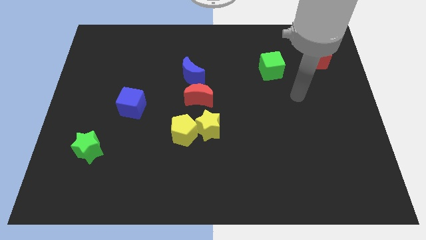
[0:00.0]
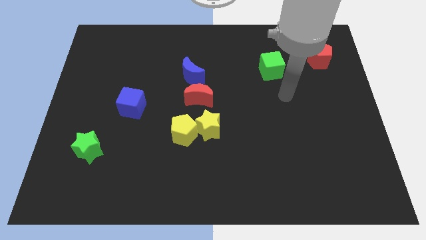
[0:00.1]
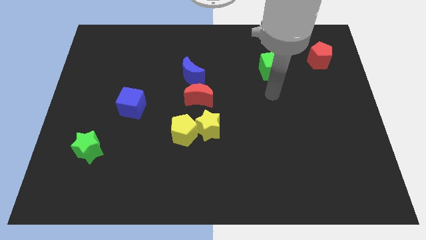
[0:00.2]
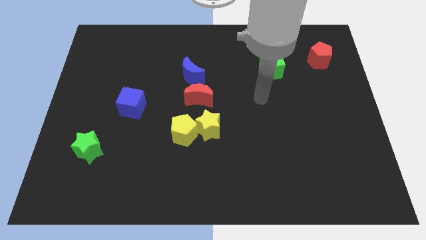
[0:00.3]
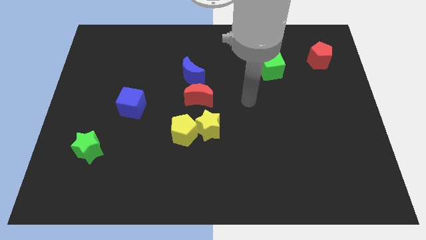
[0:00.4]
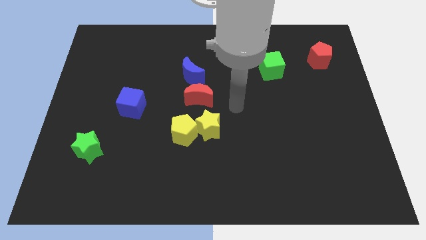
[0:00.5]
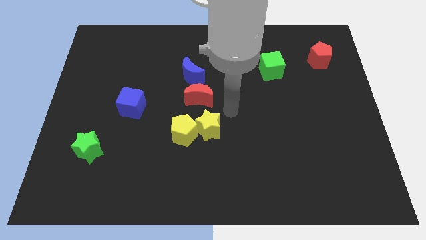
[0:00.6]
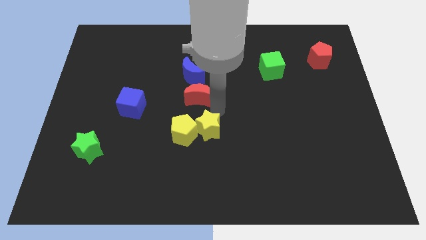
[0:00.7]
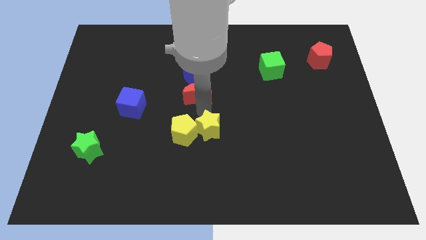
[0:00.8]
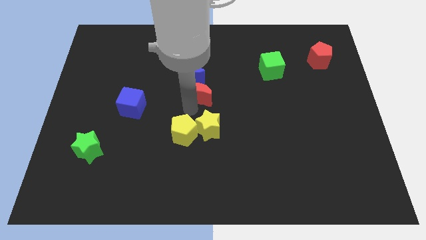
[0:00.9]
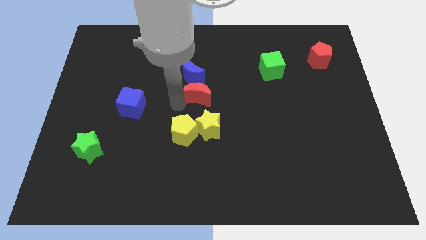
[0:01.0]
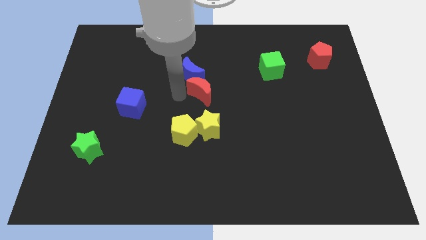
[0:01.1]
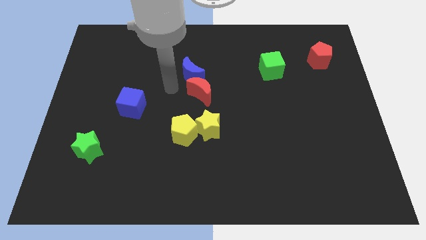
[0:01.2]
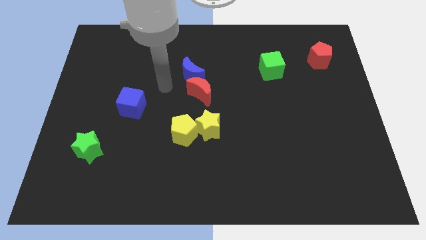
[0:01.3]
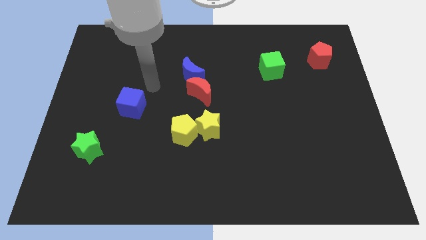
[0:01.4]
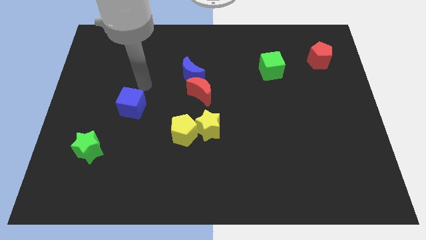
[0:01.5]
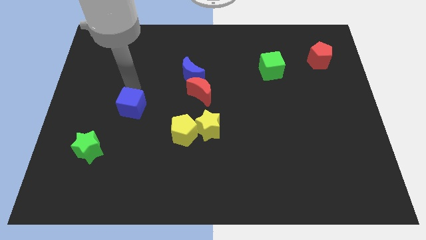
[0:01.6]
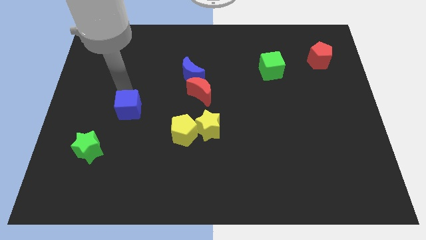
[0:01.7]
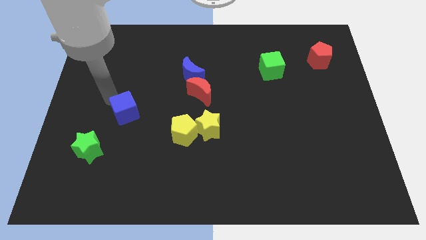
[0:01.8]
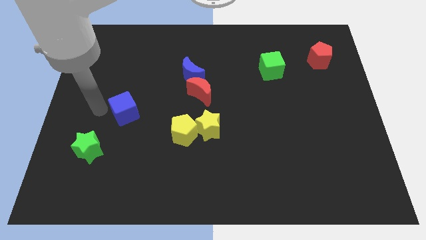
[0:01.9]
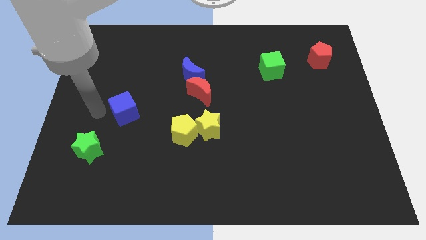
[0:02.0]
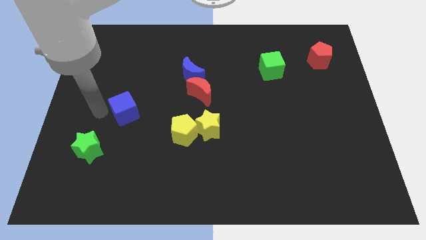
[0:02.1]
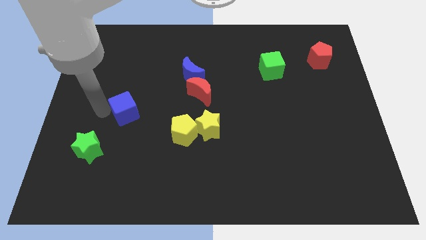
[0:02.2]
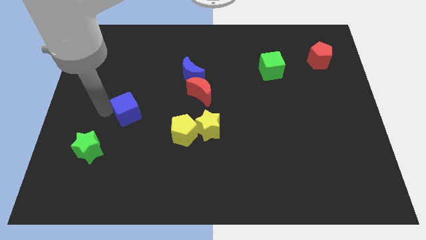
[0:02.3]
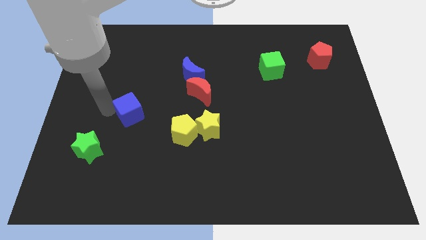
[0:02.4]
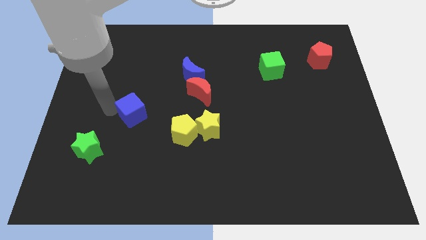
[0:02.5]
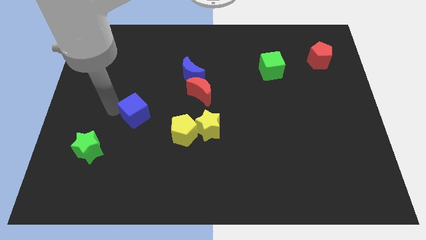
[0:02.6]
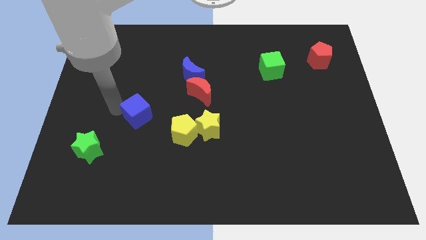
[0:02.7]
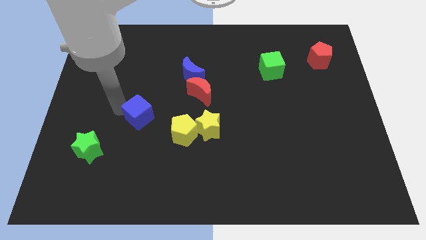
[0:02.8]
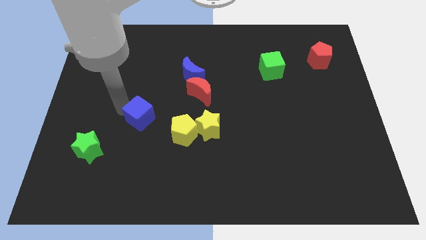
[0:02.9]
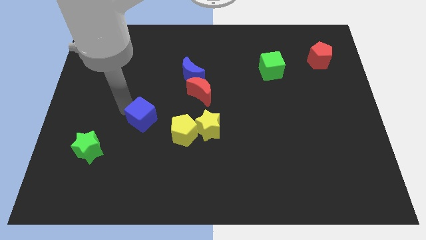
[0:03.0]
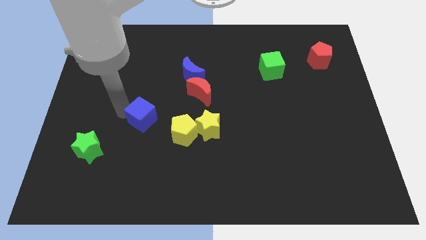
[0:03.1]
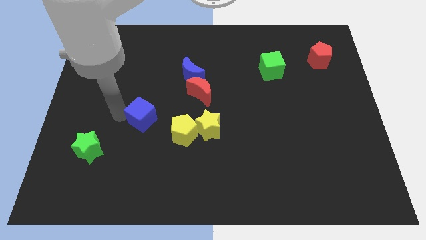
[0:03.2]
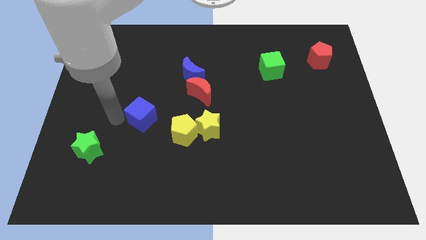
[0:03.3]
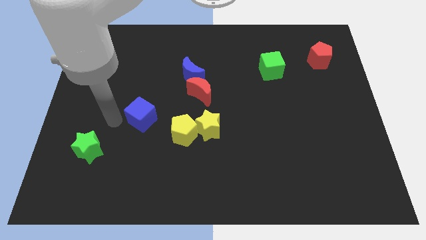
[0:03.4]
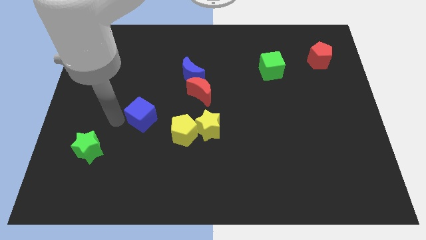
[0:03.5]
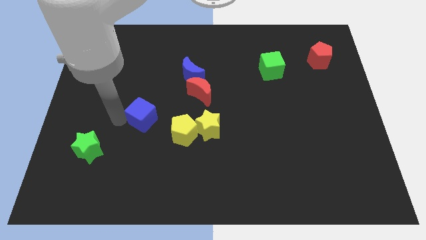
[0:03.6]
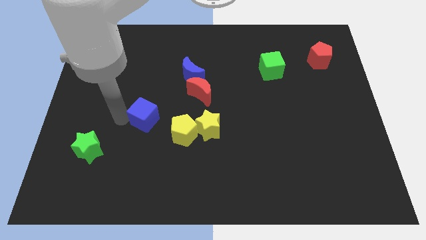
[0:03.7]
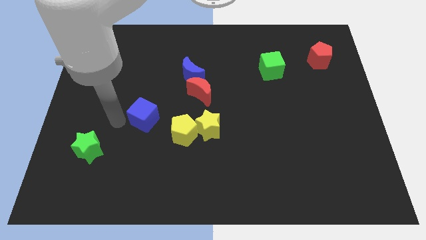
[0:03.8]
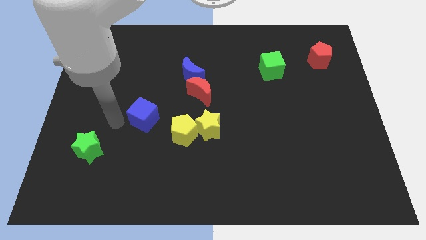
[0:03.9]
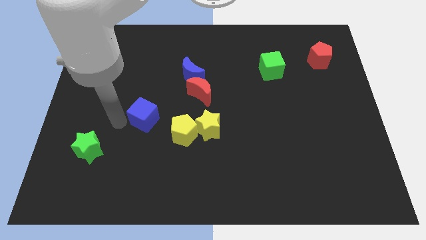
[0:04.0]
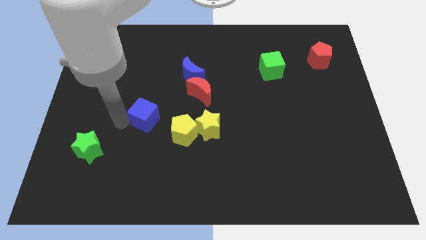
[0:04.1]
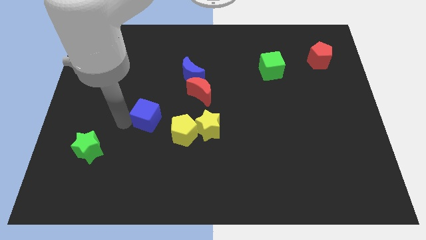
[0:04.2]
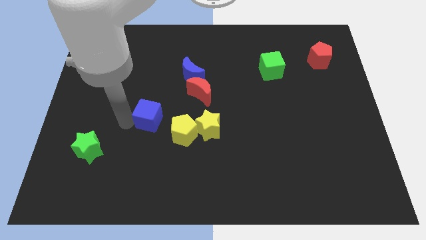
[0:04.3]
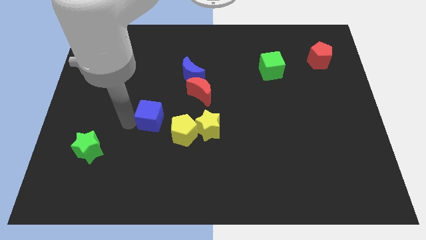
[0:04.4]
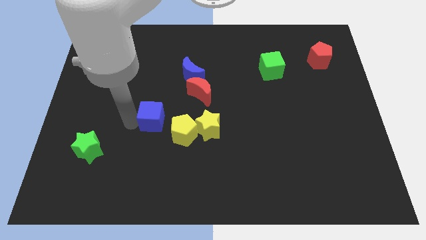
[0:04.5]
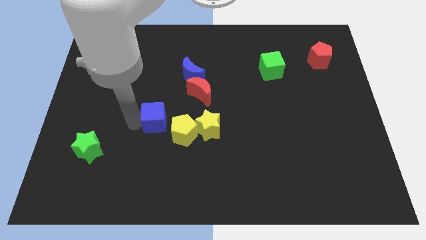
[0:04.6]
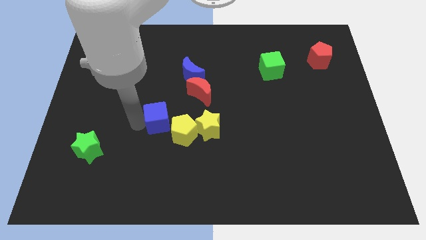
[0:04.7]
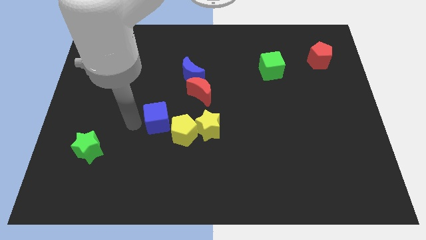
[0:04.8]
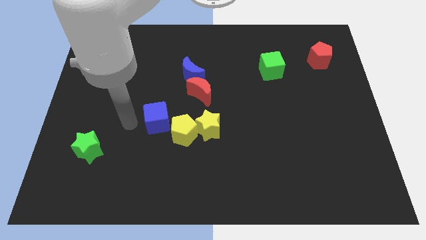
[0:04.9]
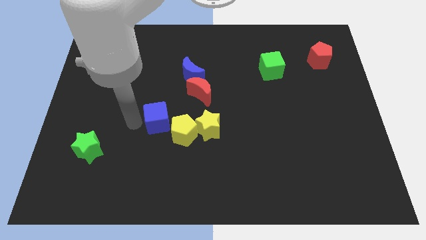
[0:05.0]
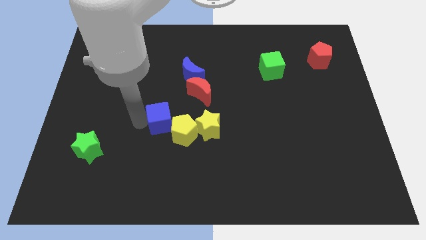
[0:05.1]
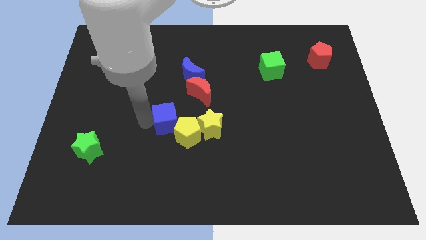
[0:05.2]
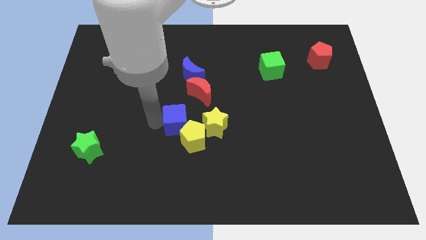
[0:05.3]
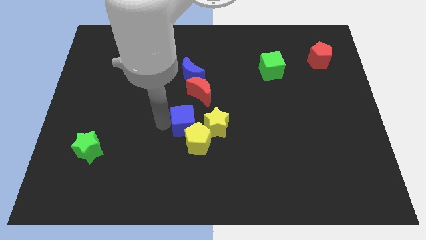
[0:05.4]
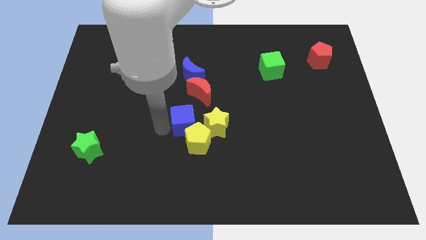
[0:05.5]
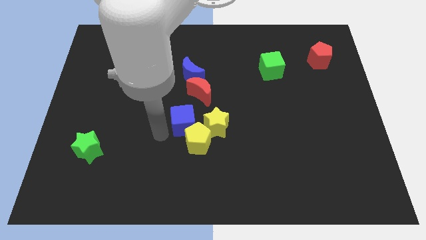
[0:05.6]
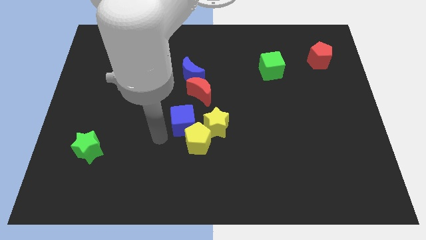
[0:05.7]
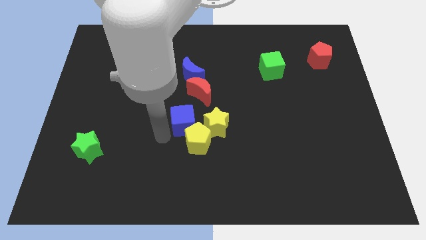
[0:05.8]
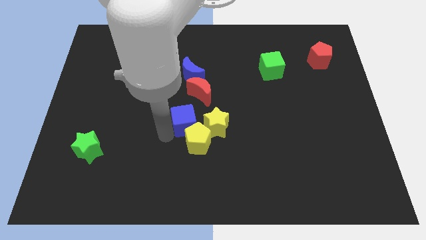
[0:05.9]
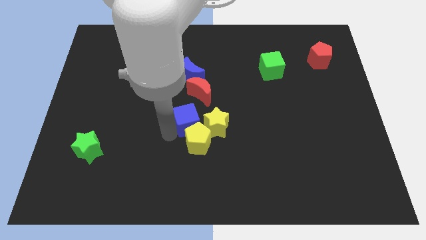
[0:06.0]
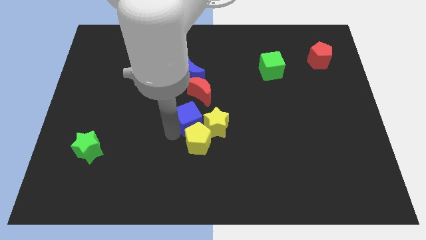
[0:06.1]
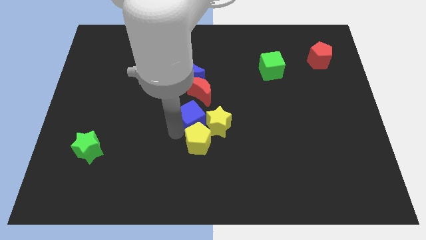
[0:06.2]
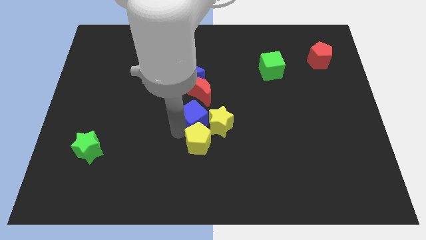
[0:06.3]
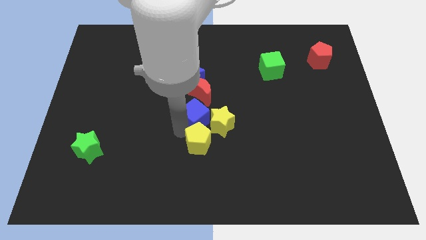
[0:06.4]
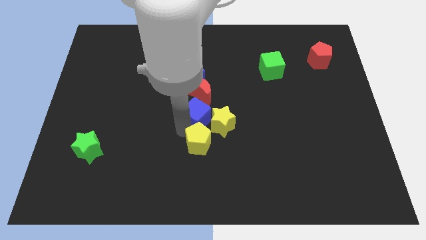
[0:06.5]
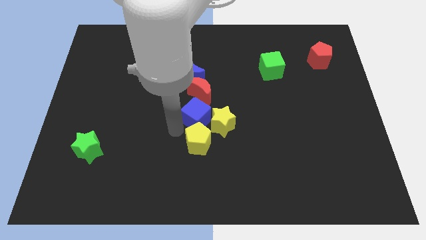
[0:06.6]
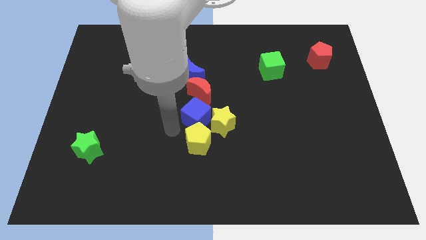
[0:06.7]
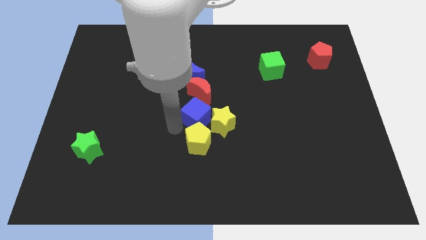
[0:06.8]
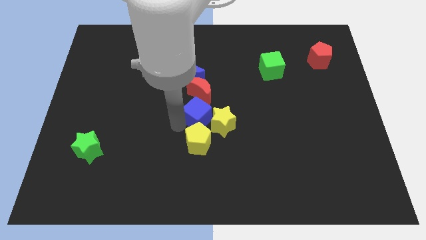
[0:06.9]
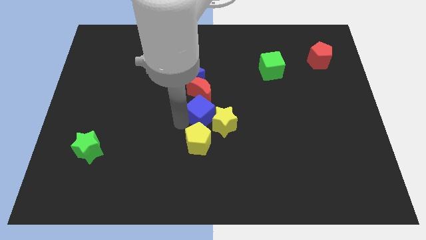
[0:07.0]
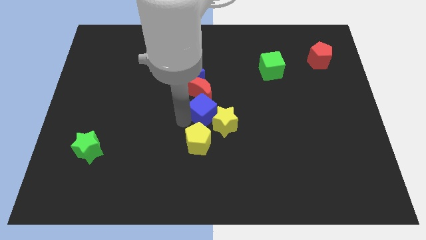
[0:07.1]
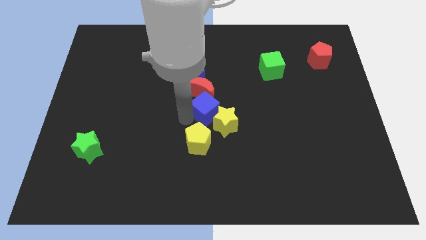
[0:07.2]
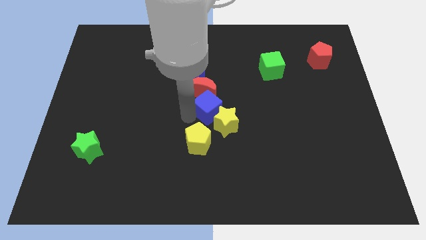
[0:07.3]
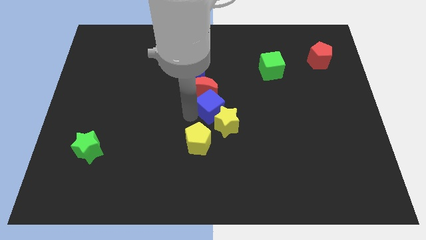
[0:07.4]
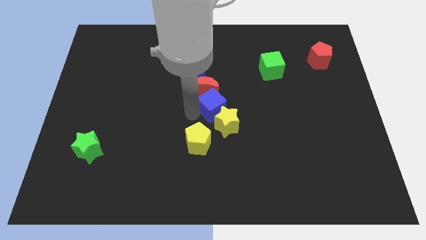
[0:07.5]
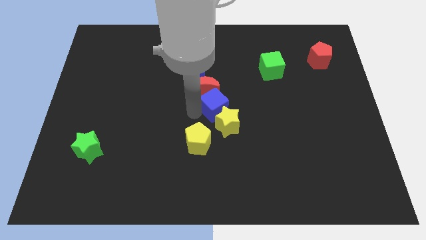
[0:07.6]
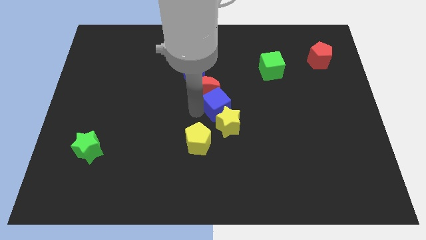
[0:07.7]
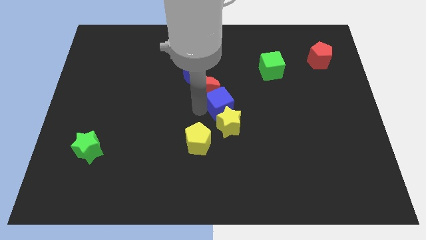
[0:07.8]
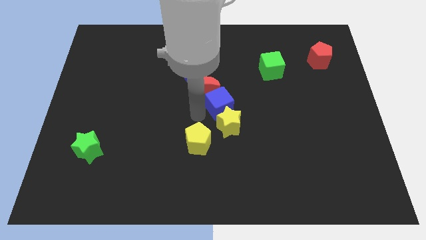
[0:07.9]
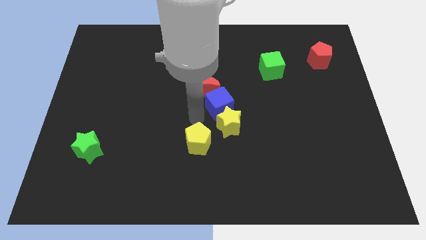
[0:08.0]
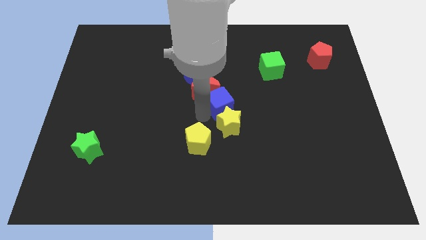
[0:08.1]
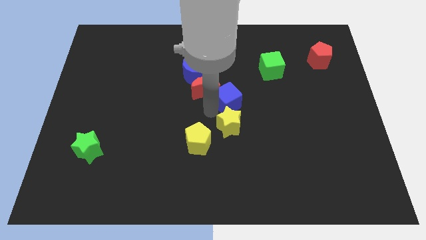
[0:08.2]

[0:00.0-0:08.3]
push the blue cube right of the red moon
